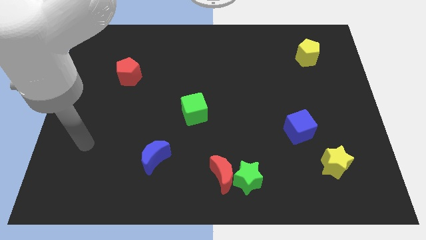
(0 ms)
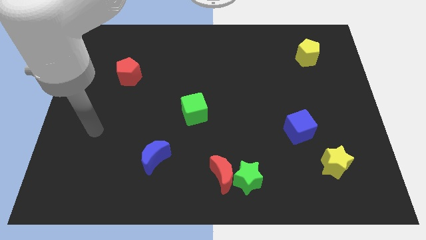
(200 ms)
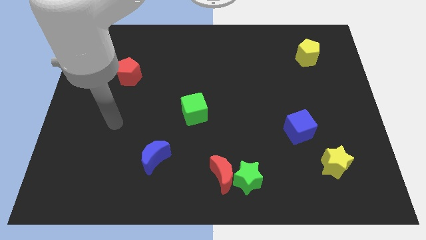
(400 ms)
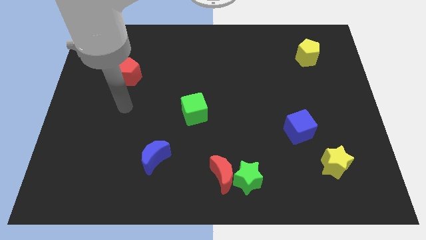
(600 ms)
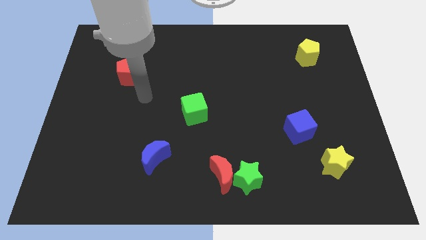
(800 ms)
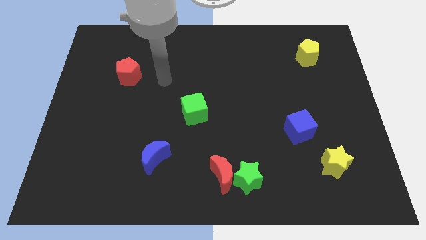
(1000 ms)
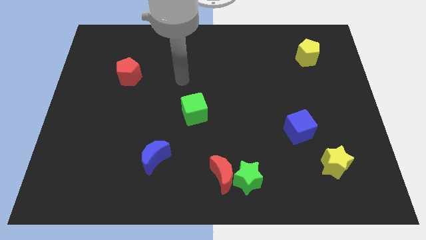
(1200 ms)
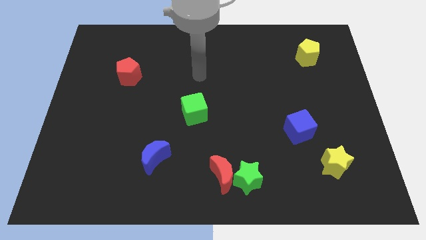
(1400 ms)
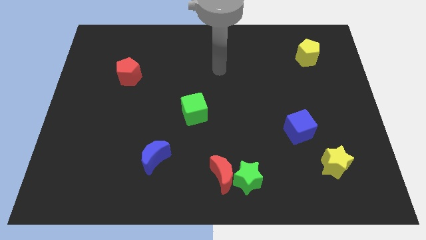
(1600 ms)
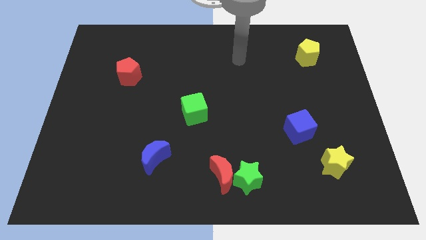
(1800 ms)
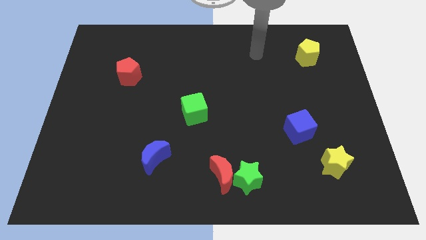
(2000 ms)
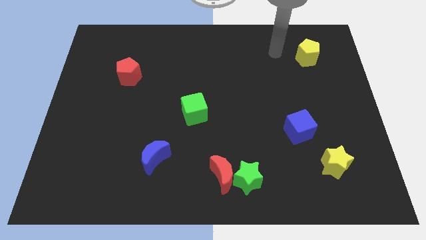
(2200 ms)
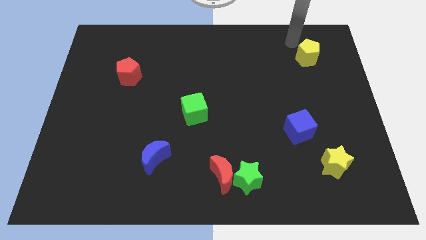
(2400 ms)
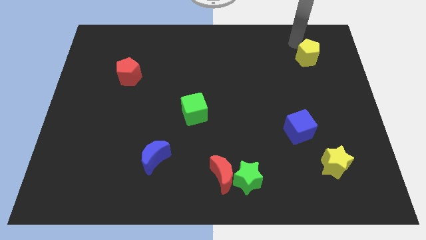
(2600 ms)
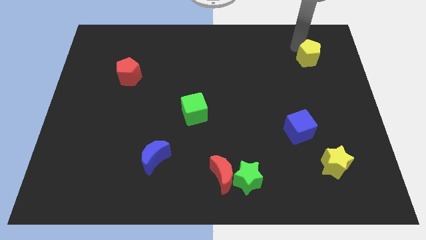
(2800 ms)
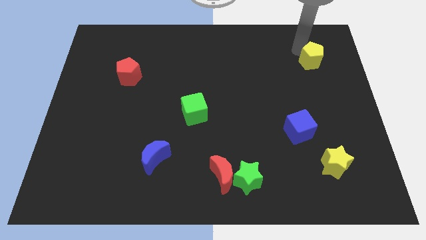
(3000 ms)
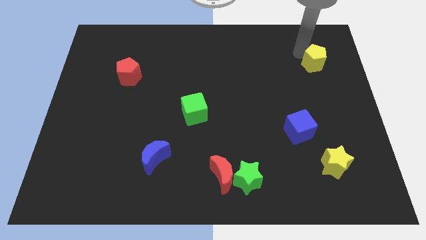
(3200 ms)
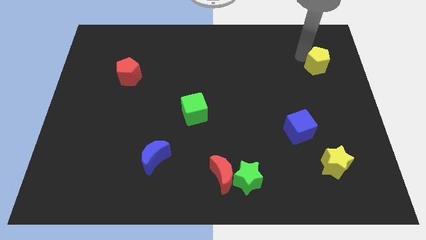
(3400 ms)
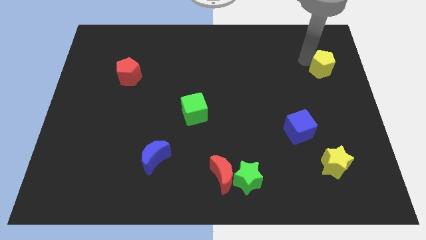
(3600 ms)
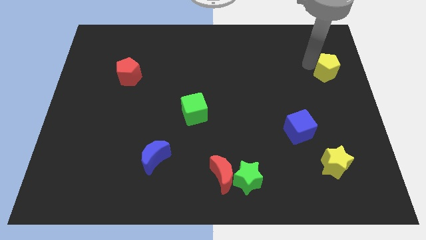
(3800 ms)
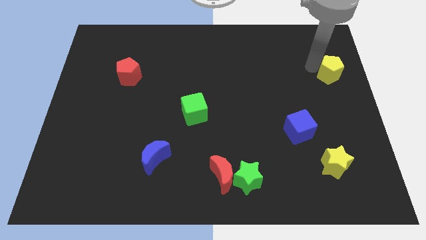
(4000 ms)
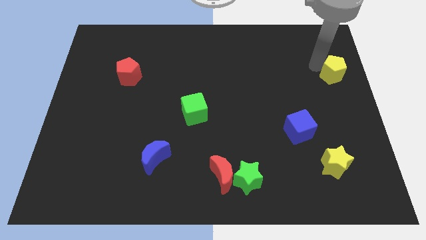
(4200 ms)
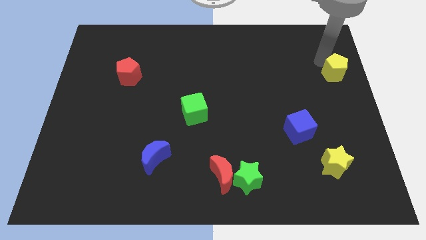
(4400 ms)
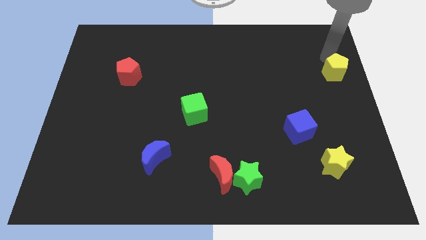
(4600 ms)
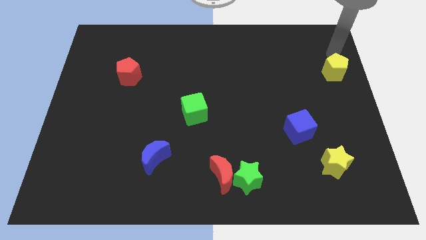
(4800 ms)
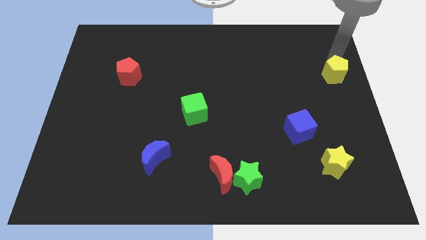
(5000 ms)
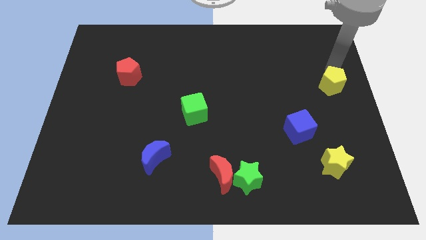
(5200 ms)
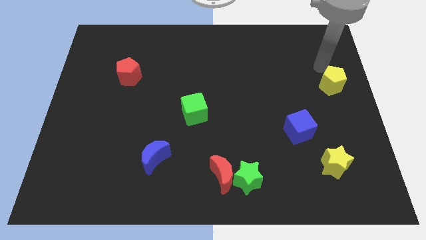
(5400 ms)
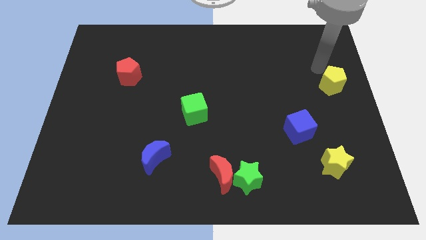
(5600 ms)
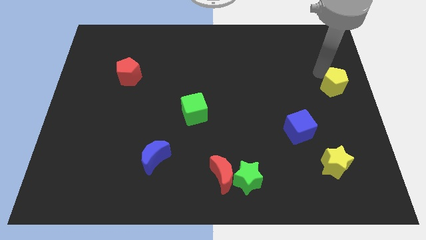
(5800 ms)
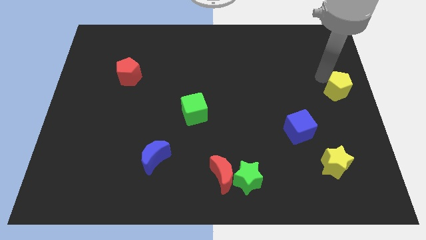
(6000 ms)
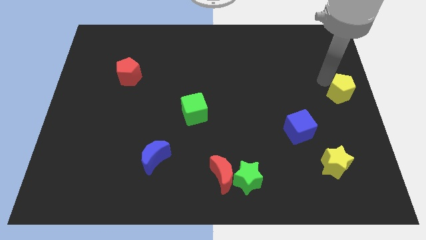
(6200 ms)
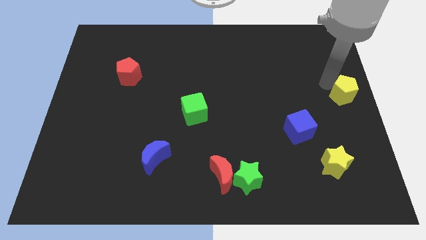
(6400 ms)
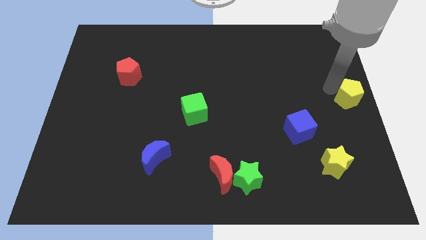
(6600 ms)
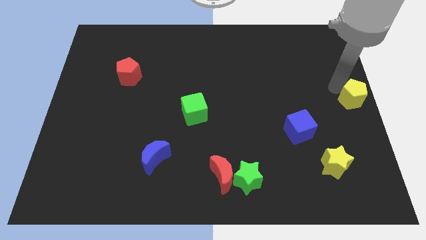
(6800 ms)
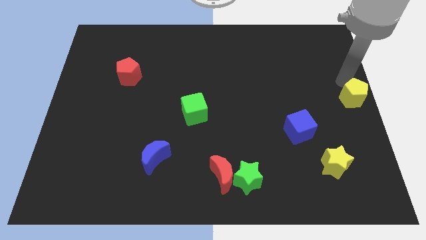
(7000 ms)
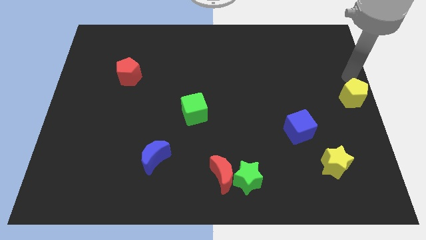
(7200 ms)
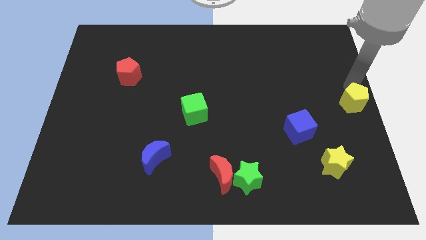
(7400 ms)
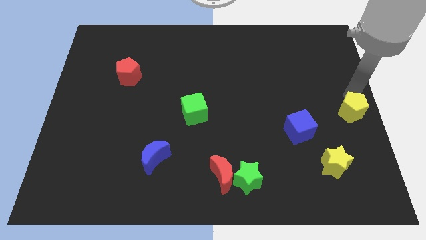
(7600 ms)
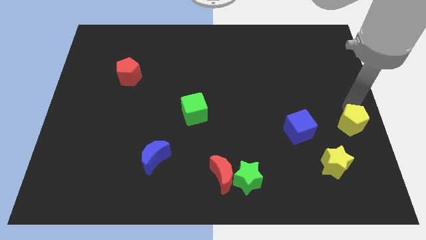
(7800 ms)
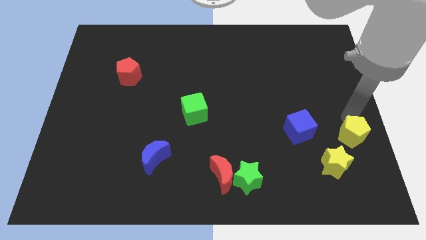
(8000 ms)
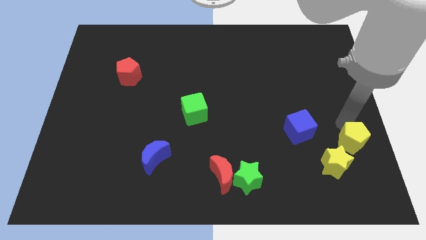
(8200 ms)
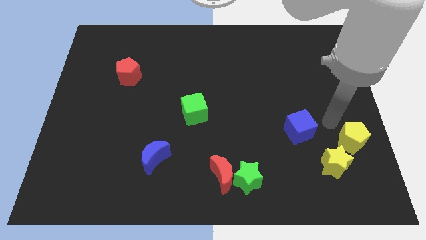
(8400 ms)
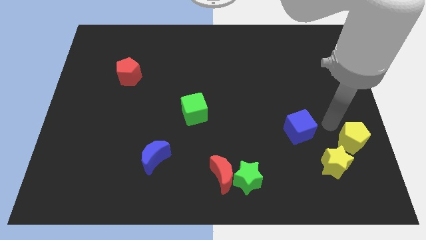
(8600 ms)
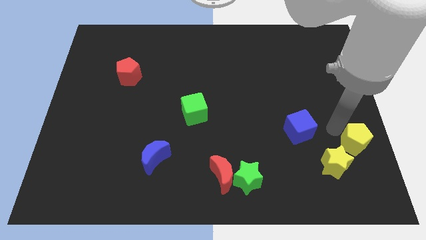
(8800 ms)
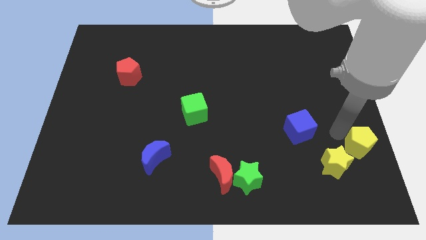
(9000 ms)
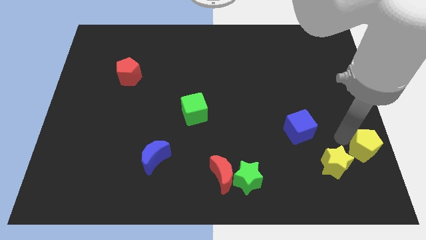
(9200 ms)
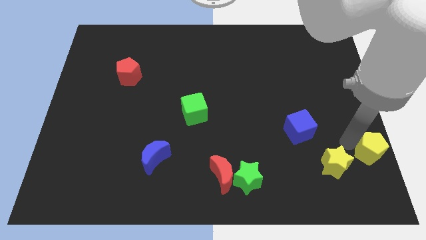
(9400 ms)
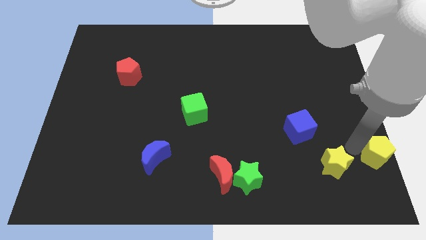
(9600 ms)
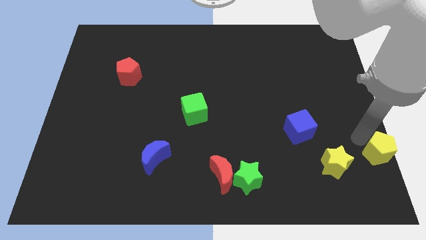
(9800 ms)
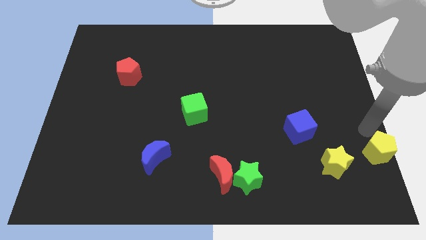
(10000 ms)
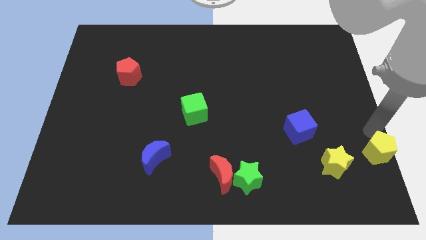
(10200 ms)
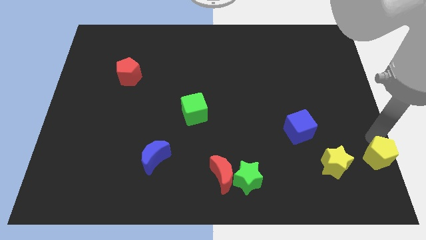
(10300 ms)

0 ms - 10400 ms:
slide the yellow pentagon to the bottom right of the board

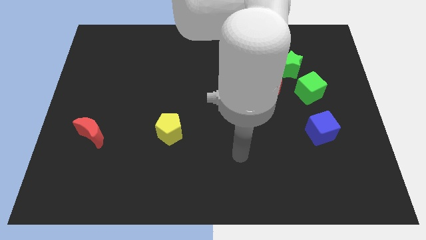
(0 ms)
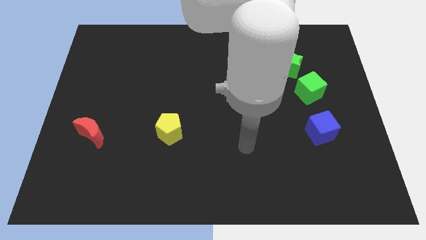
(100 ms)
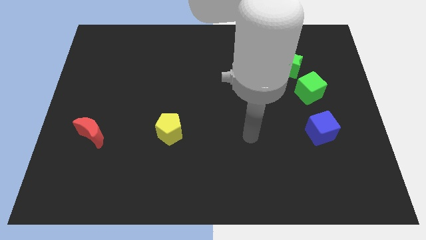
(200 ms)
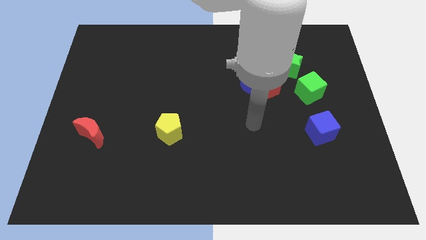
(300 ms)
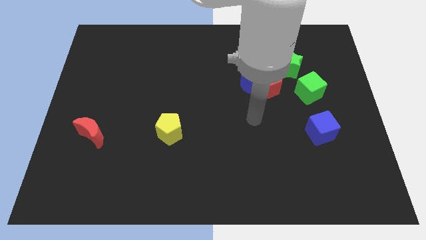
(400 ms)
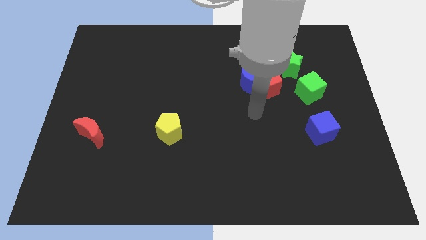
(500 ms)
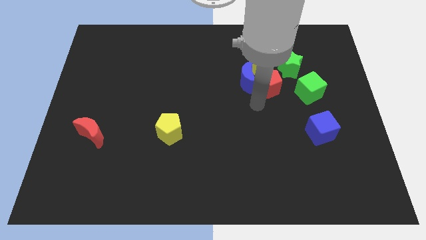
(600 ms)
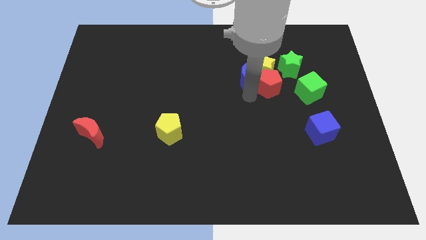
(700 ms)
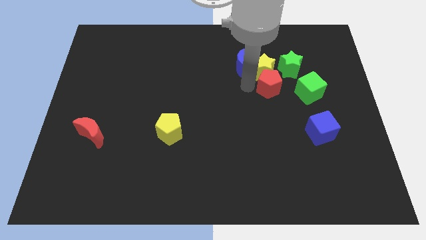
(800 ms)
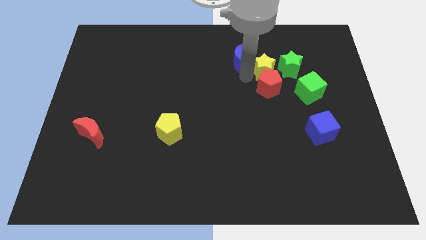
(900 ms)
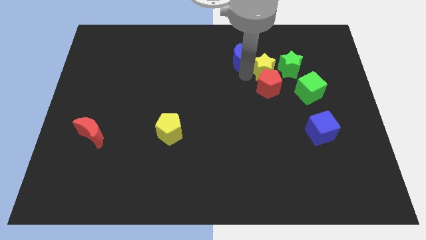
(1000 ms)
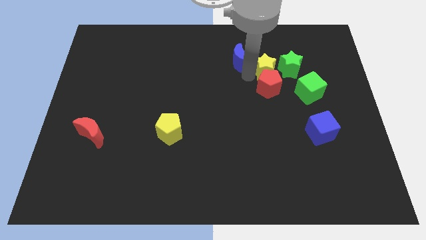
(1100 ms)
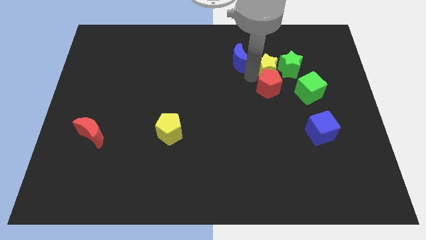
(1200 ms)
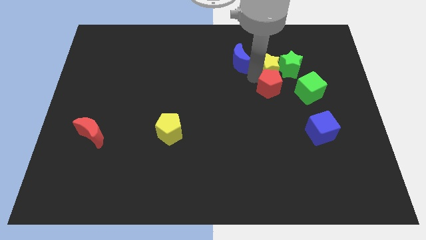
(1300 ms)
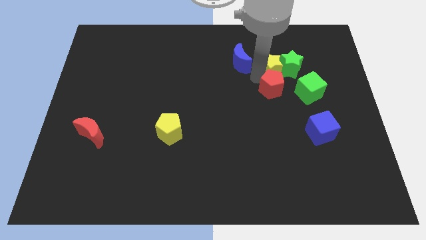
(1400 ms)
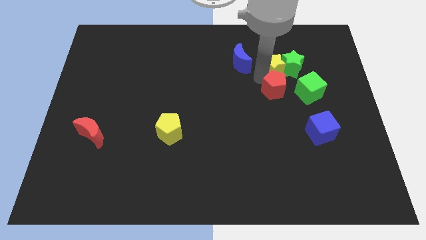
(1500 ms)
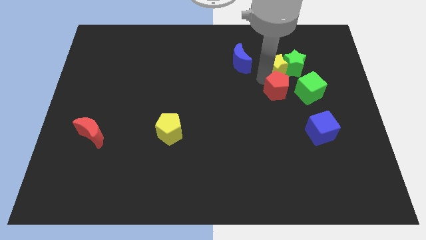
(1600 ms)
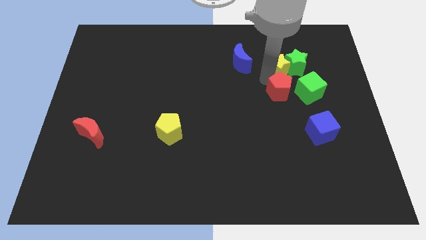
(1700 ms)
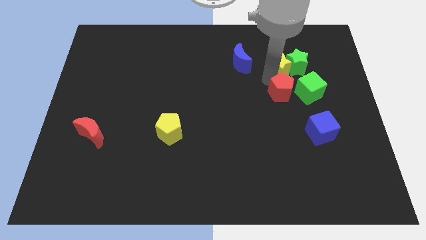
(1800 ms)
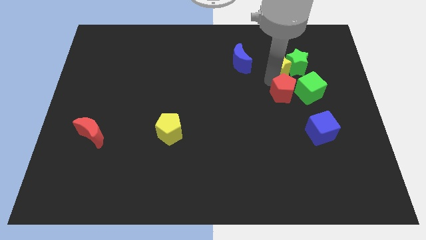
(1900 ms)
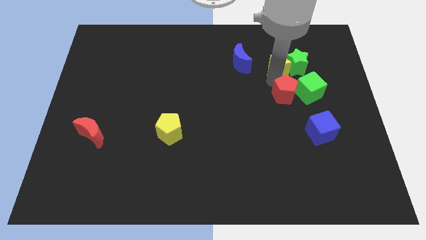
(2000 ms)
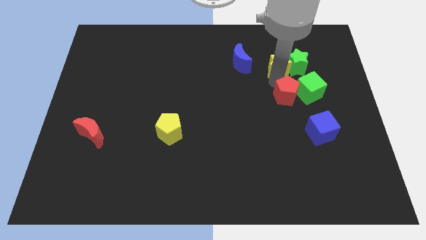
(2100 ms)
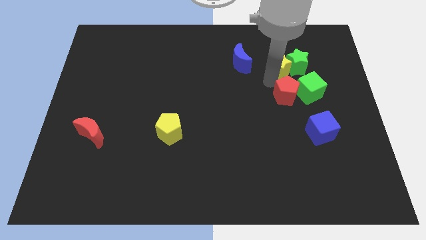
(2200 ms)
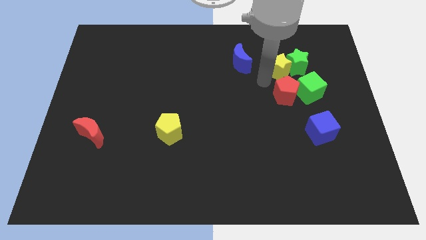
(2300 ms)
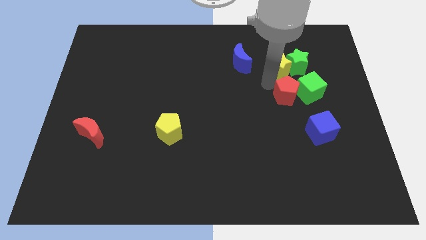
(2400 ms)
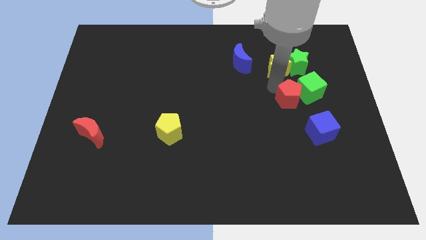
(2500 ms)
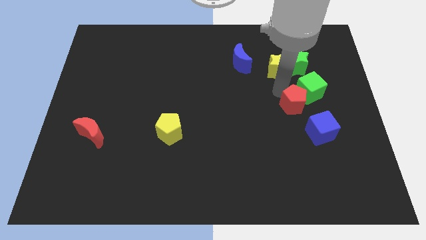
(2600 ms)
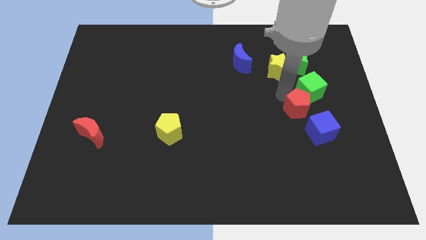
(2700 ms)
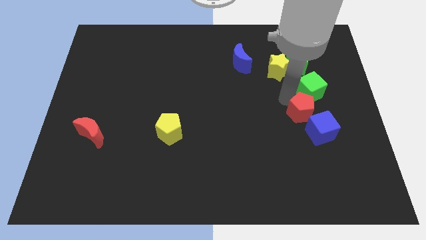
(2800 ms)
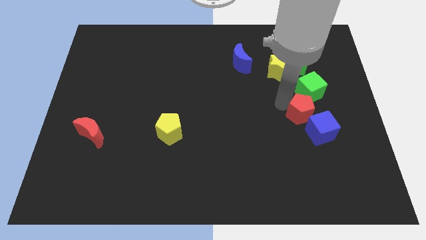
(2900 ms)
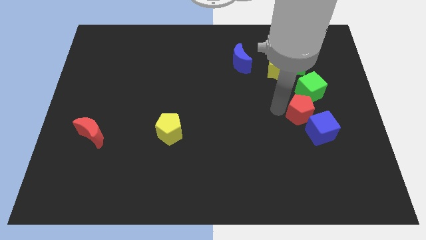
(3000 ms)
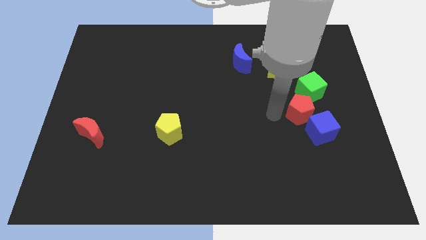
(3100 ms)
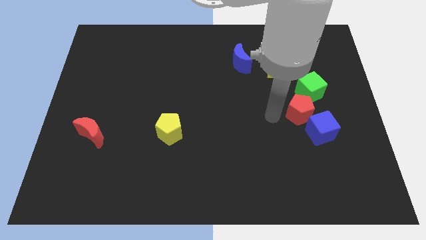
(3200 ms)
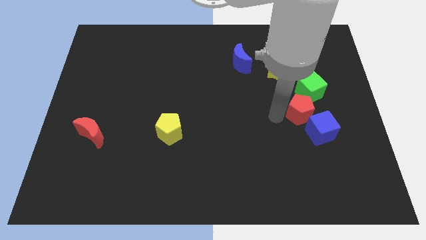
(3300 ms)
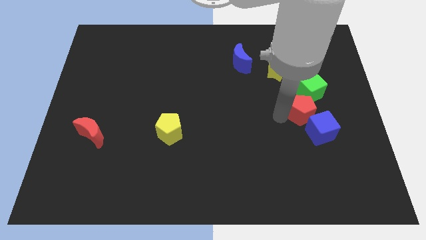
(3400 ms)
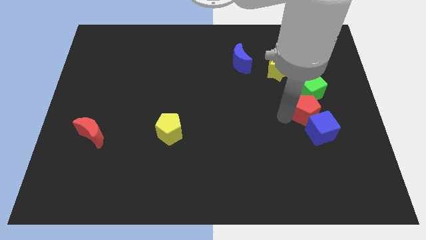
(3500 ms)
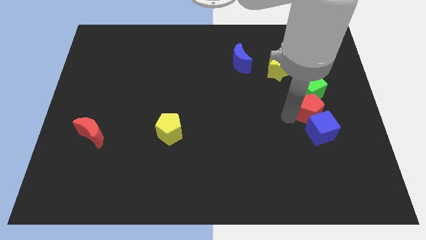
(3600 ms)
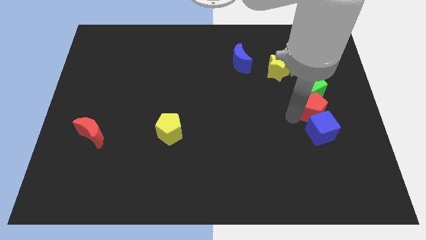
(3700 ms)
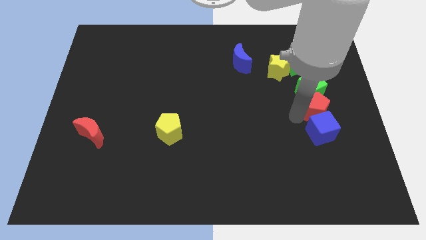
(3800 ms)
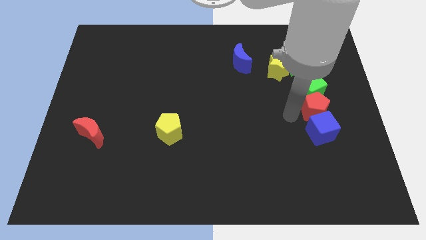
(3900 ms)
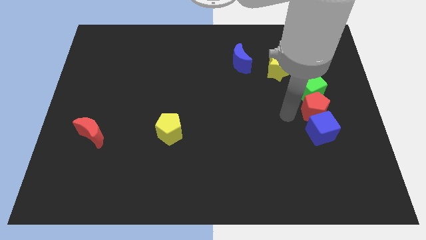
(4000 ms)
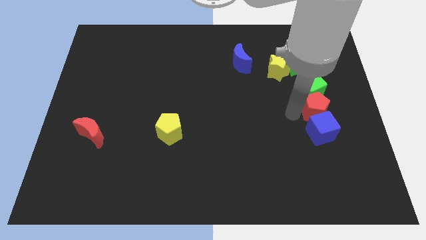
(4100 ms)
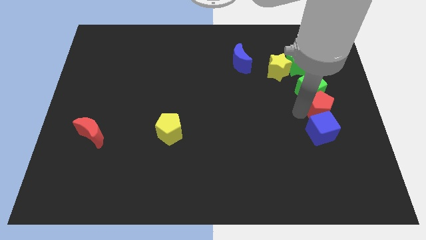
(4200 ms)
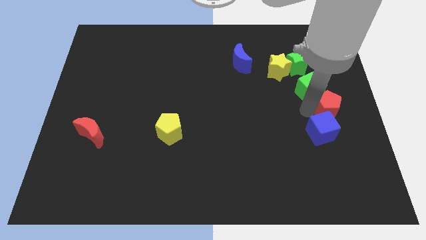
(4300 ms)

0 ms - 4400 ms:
push the red pentagon to the right side
